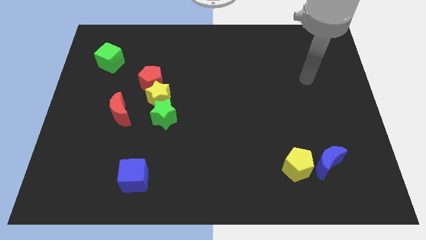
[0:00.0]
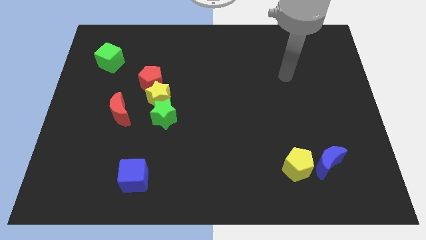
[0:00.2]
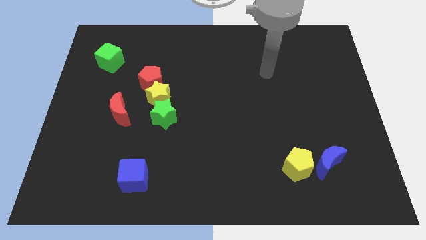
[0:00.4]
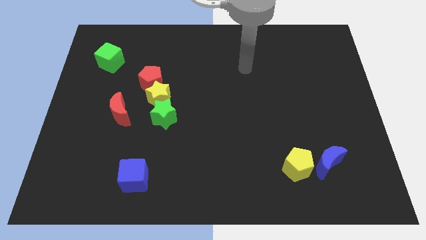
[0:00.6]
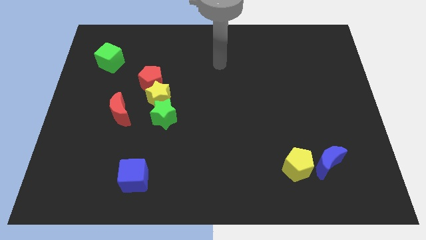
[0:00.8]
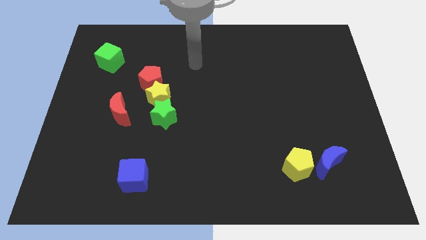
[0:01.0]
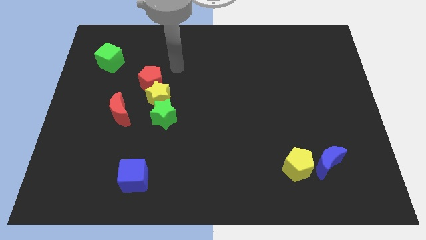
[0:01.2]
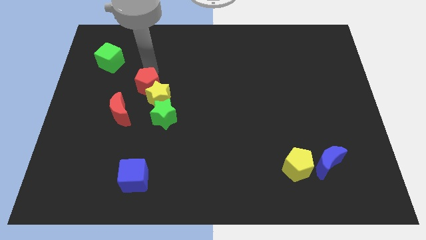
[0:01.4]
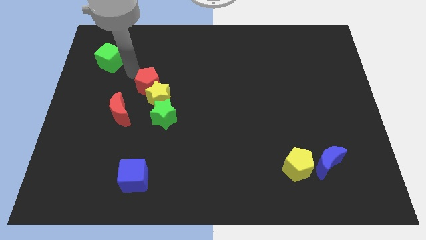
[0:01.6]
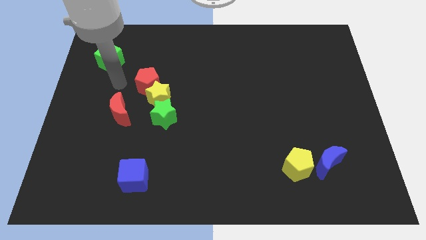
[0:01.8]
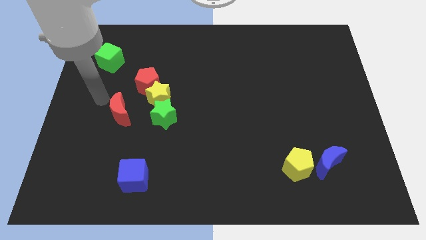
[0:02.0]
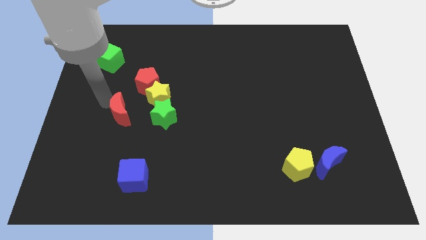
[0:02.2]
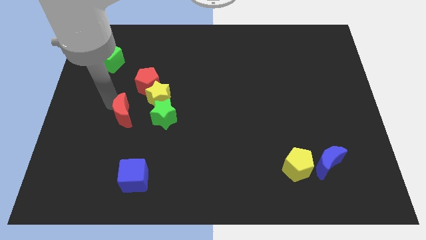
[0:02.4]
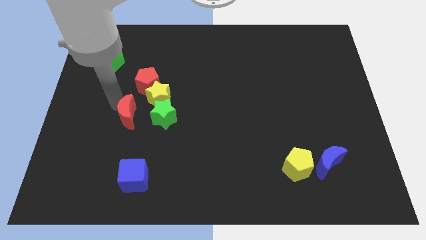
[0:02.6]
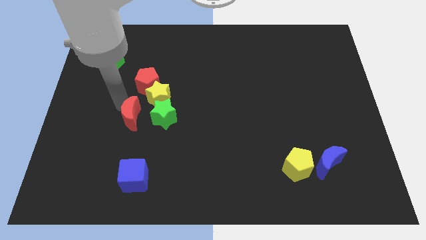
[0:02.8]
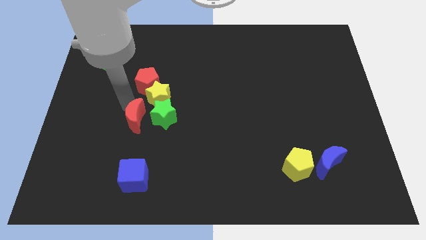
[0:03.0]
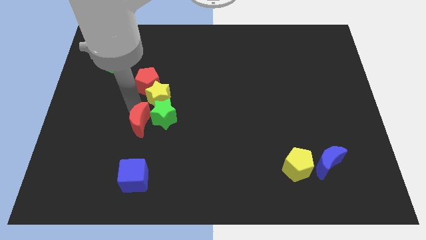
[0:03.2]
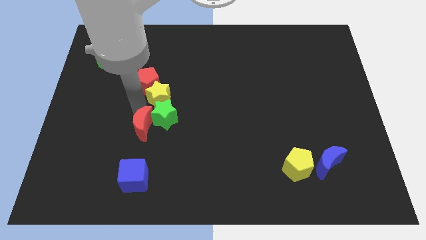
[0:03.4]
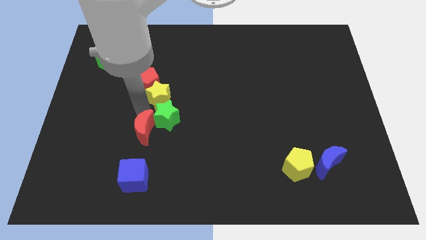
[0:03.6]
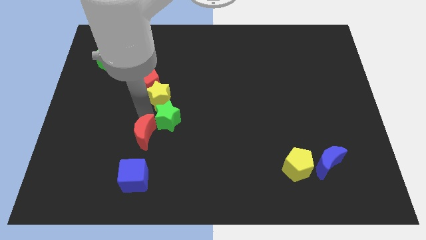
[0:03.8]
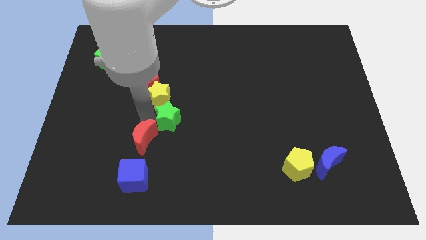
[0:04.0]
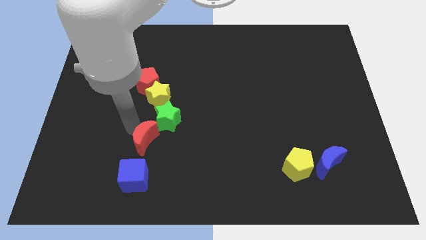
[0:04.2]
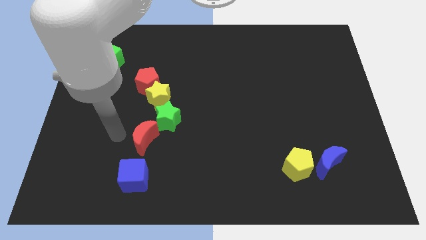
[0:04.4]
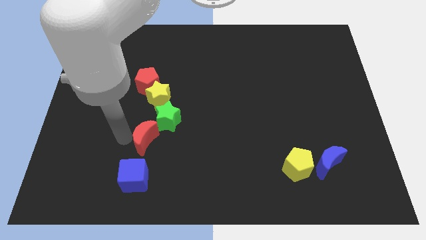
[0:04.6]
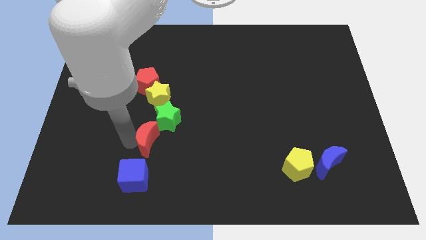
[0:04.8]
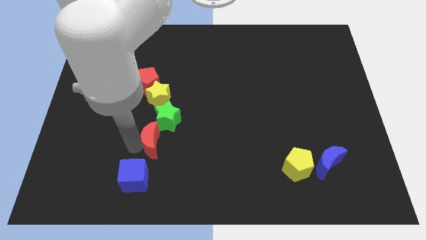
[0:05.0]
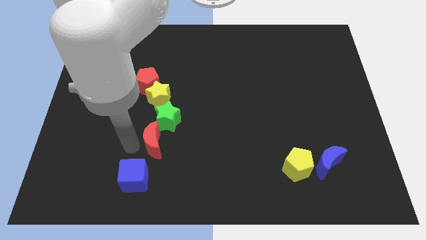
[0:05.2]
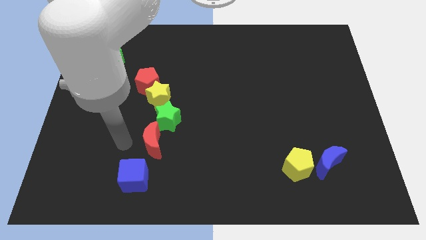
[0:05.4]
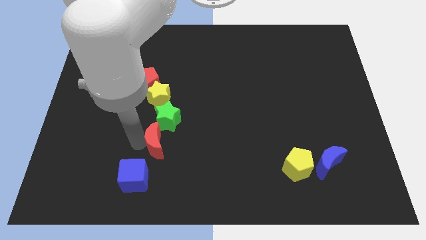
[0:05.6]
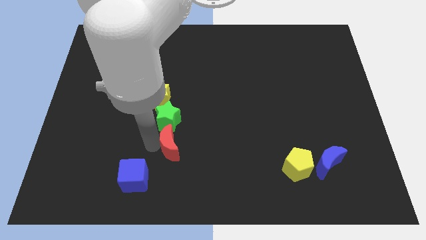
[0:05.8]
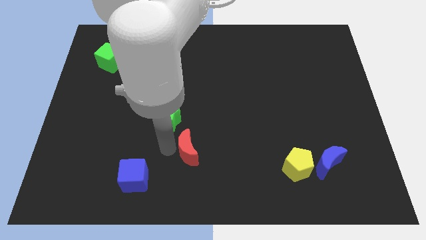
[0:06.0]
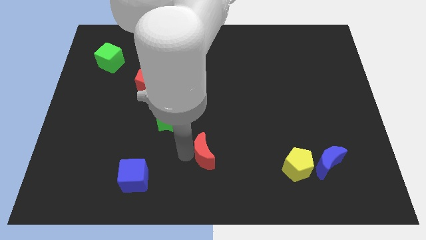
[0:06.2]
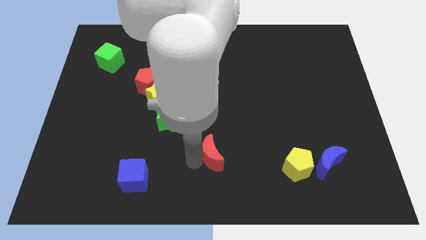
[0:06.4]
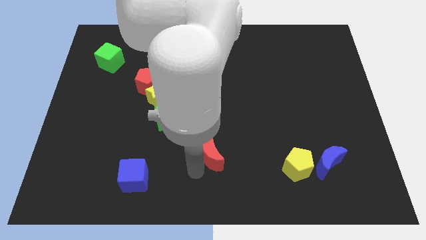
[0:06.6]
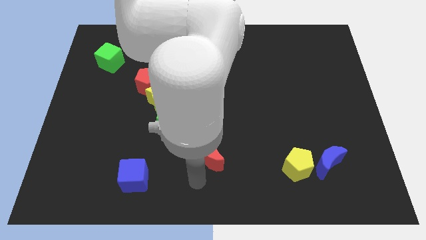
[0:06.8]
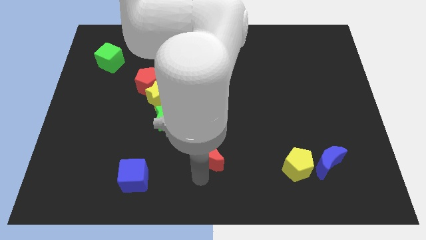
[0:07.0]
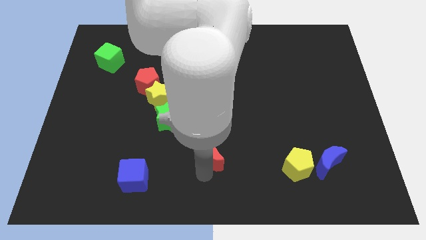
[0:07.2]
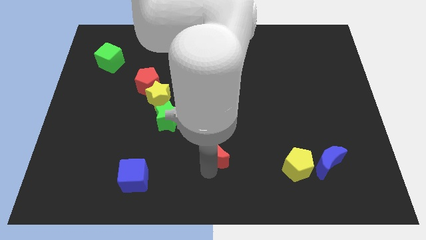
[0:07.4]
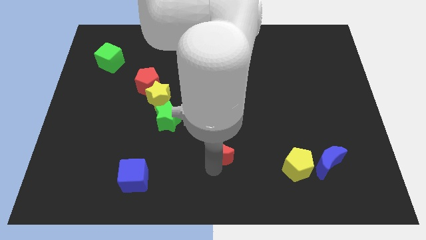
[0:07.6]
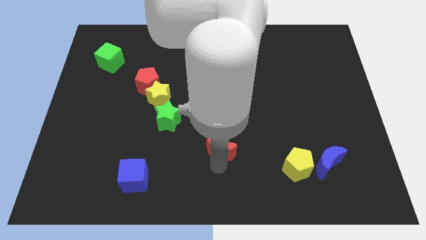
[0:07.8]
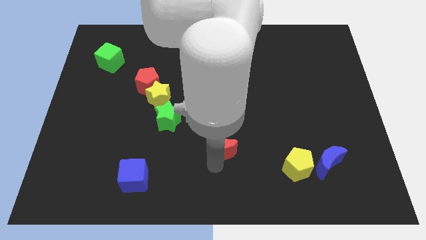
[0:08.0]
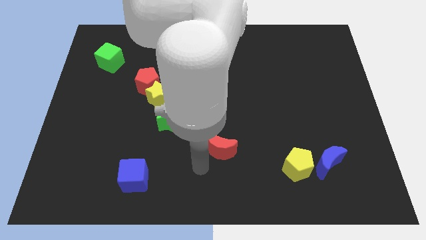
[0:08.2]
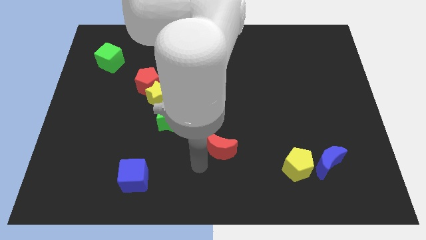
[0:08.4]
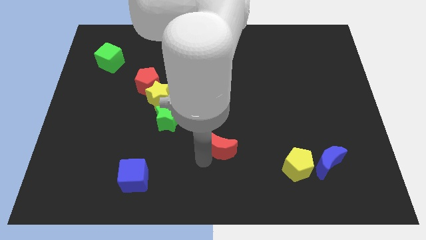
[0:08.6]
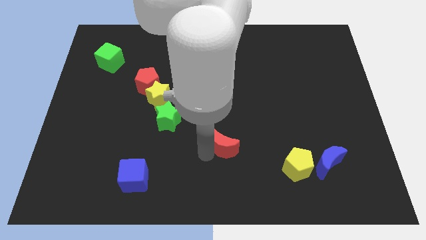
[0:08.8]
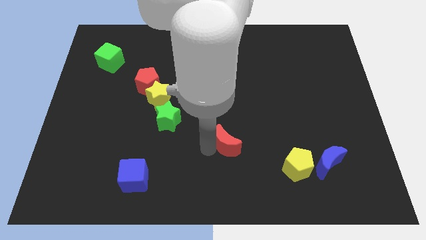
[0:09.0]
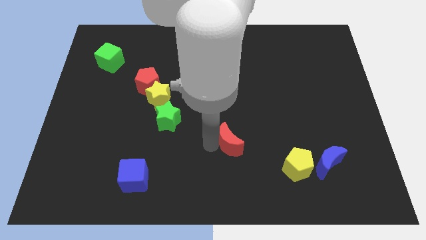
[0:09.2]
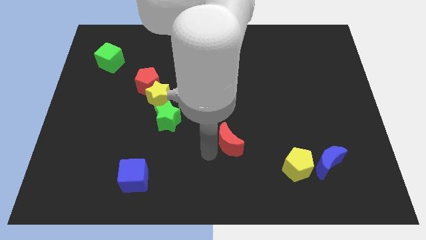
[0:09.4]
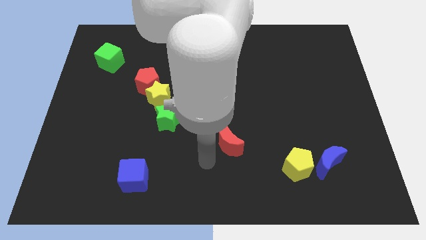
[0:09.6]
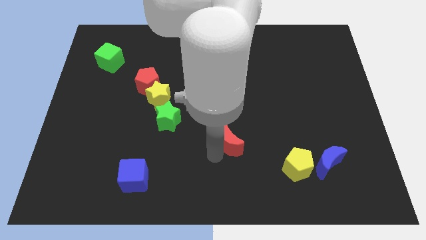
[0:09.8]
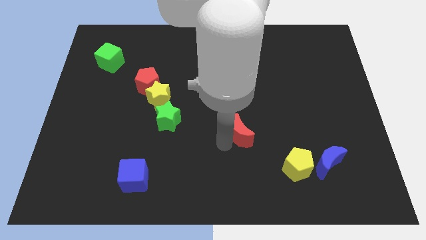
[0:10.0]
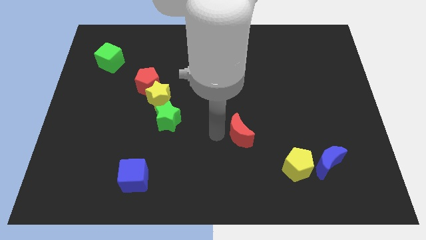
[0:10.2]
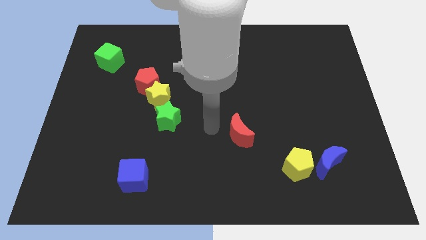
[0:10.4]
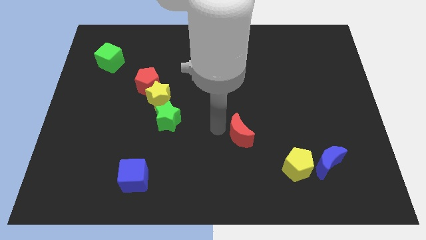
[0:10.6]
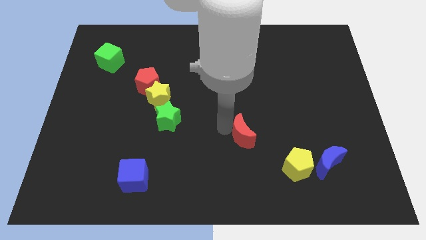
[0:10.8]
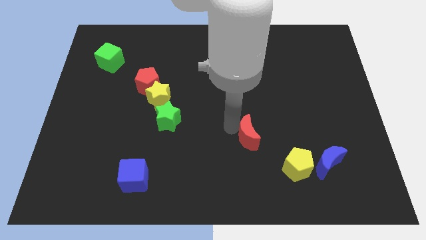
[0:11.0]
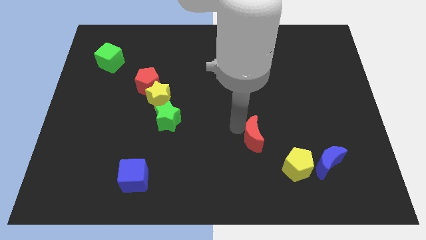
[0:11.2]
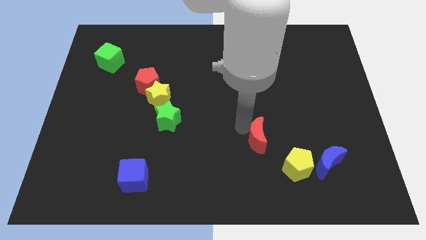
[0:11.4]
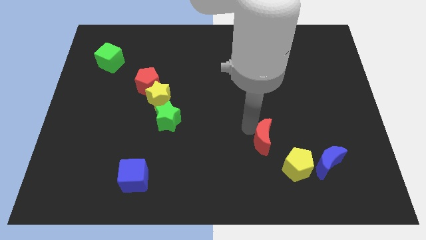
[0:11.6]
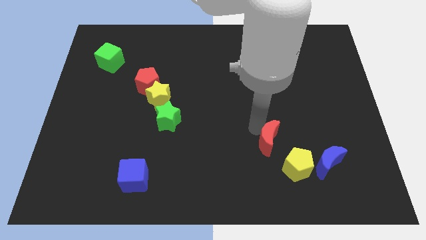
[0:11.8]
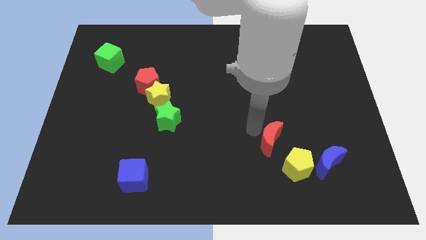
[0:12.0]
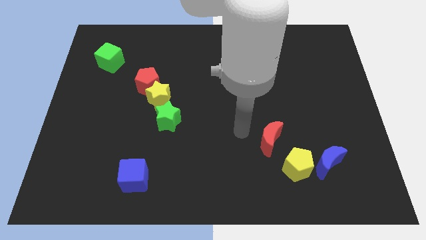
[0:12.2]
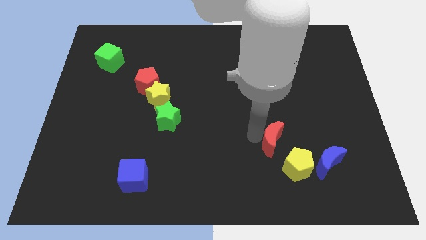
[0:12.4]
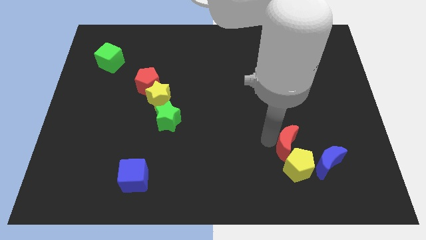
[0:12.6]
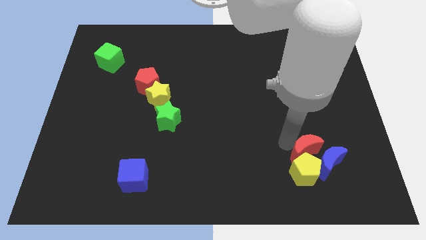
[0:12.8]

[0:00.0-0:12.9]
put the red moon close to the blue moon

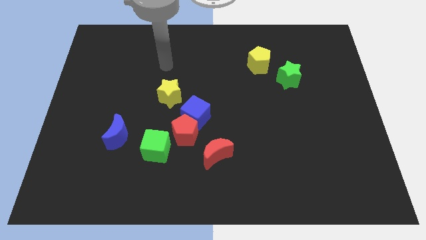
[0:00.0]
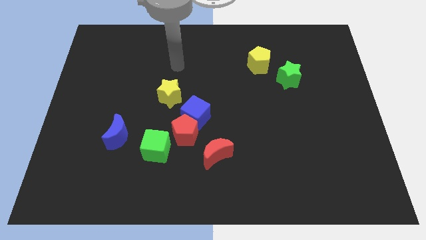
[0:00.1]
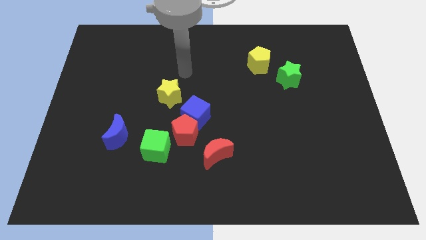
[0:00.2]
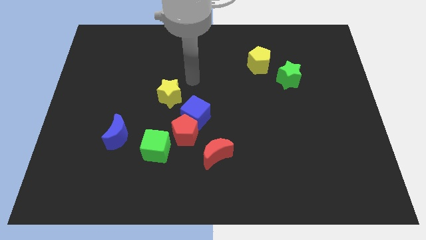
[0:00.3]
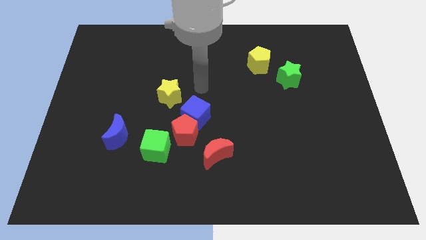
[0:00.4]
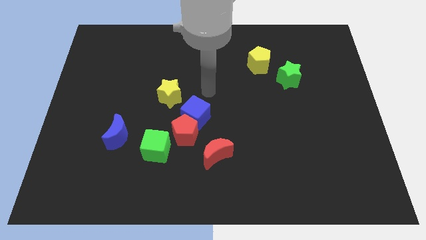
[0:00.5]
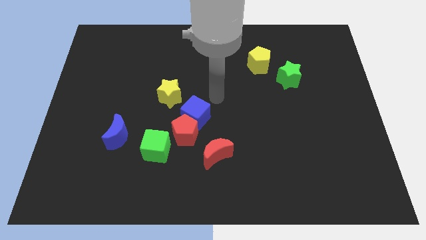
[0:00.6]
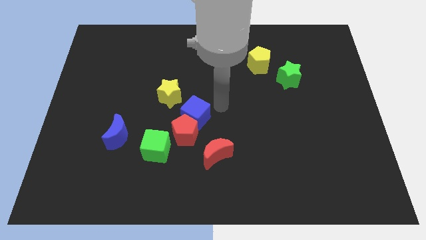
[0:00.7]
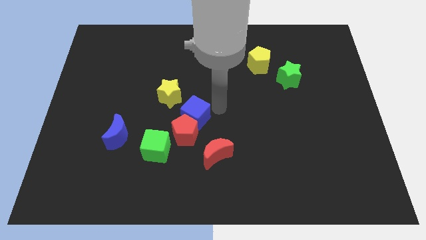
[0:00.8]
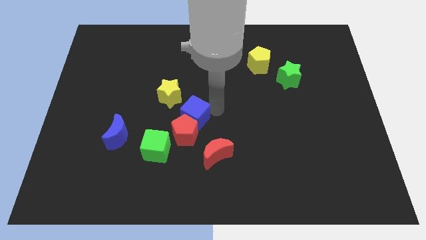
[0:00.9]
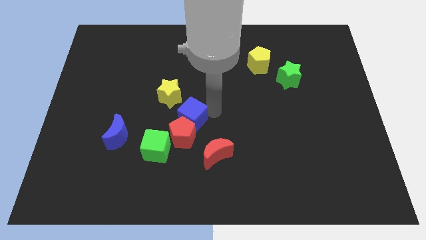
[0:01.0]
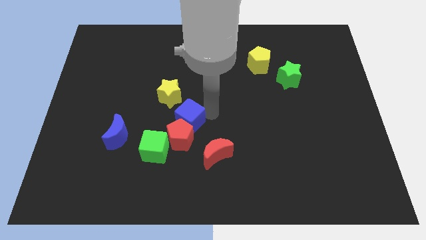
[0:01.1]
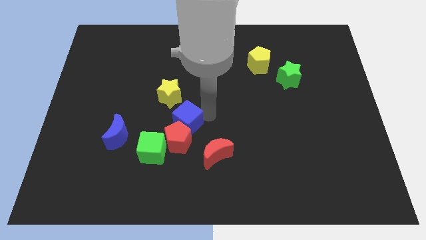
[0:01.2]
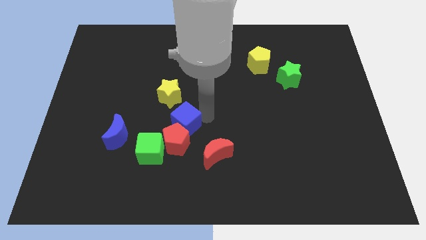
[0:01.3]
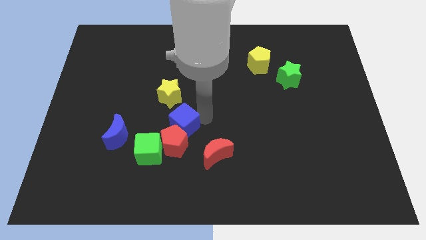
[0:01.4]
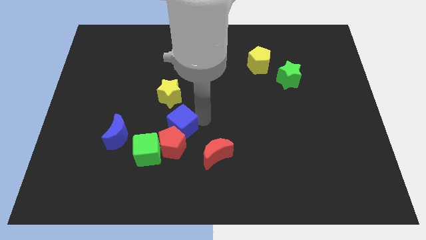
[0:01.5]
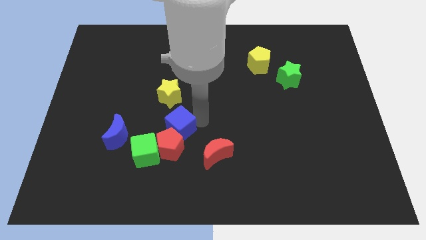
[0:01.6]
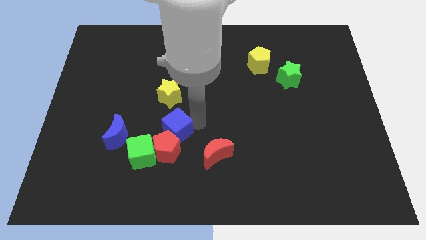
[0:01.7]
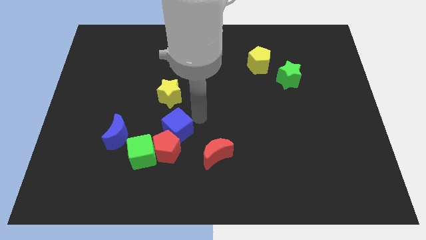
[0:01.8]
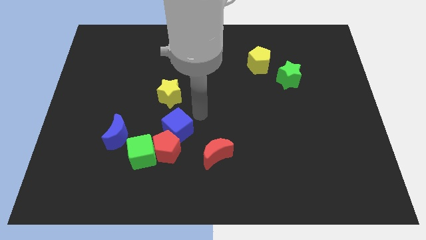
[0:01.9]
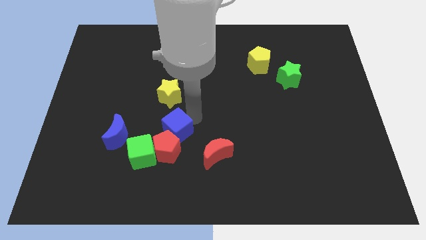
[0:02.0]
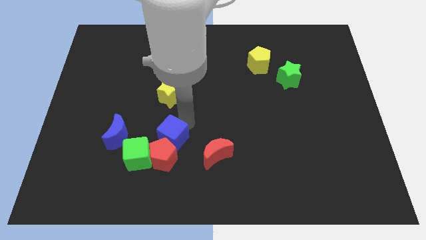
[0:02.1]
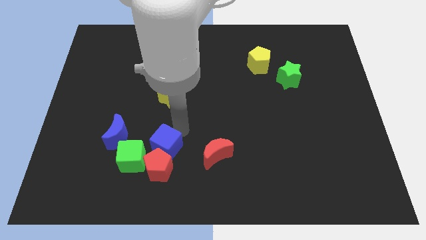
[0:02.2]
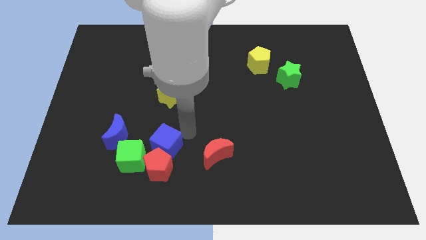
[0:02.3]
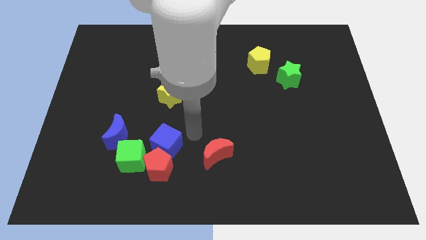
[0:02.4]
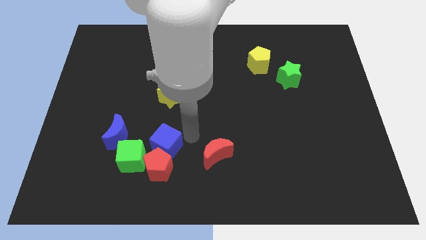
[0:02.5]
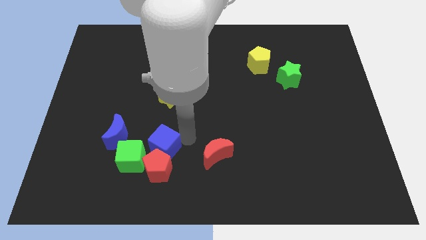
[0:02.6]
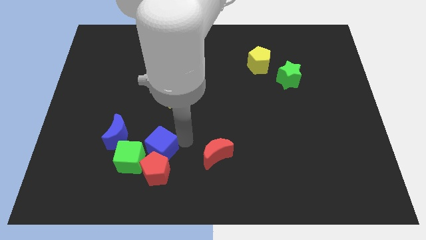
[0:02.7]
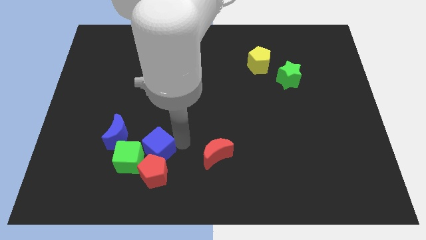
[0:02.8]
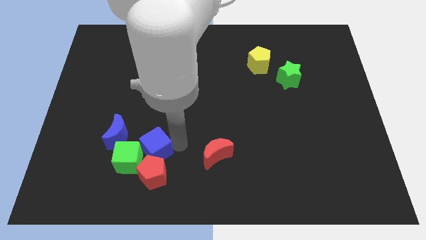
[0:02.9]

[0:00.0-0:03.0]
push the blue cube towards the green cube
